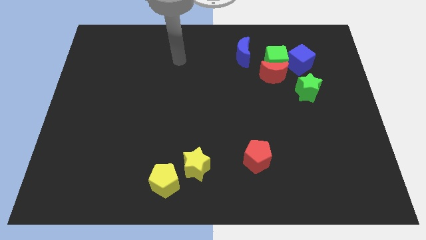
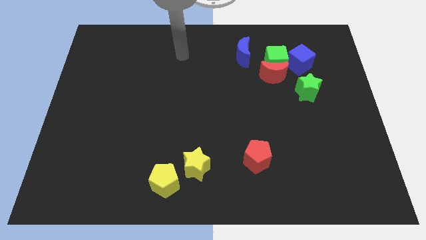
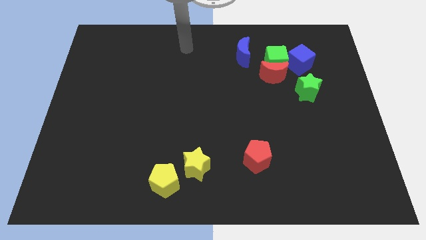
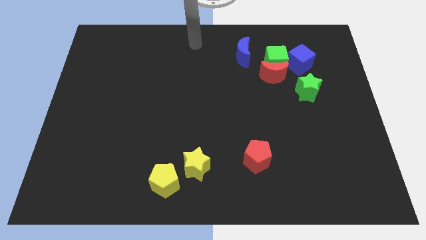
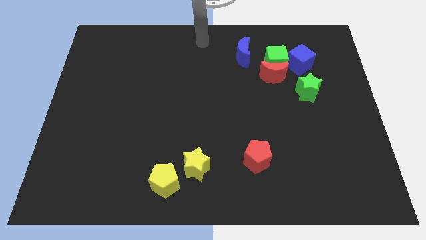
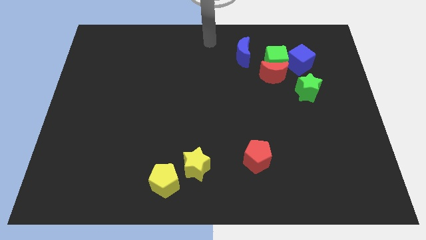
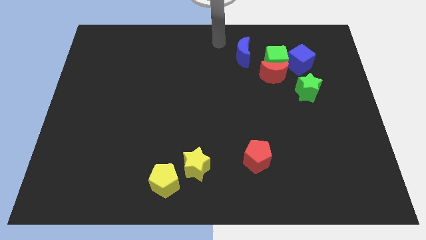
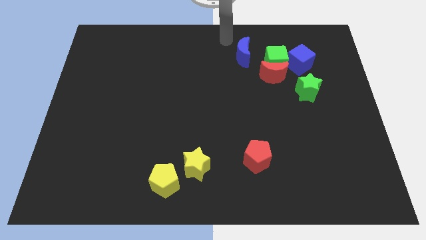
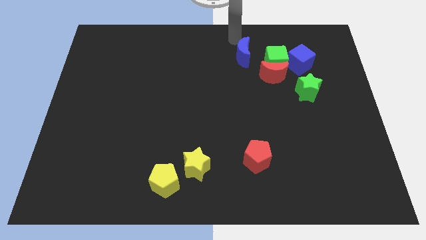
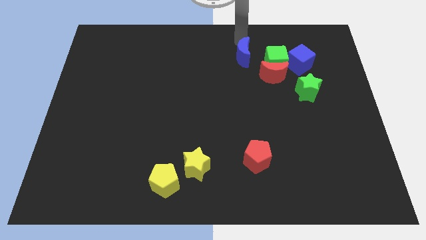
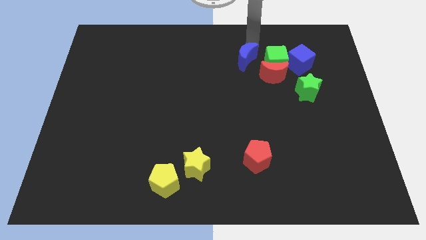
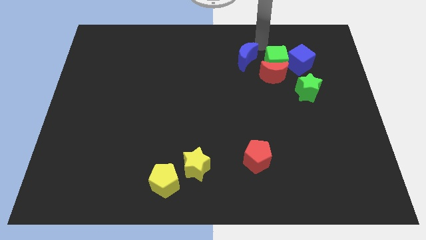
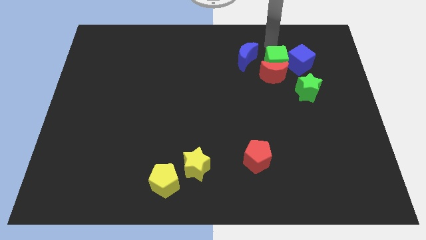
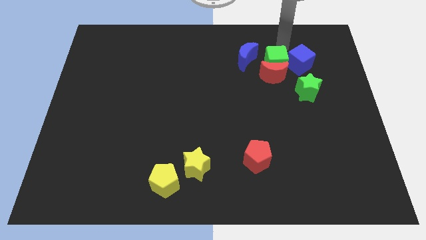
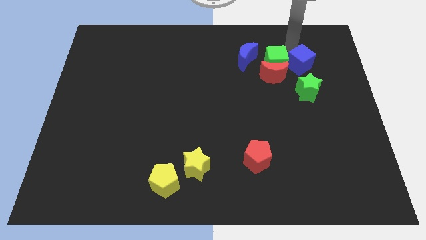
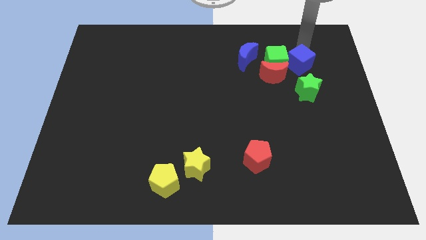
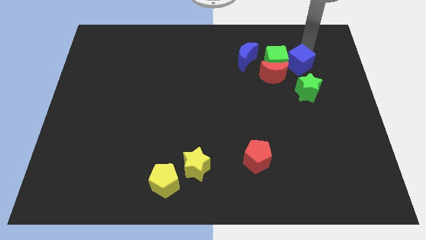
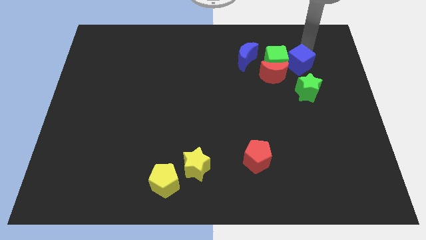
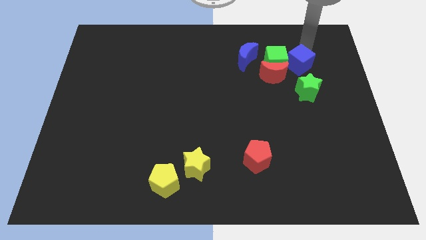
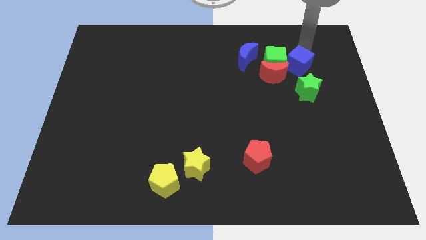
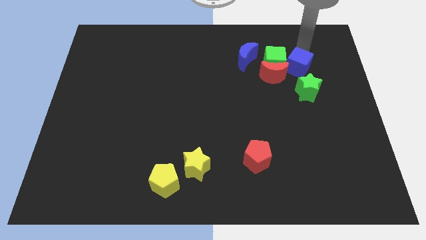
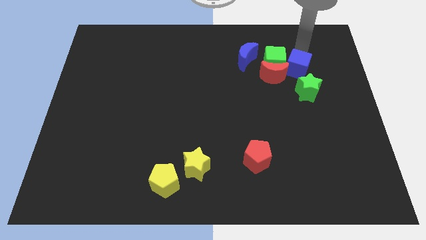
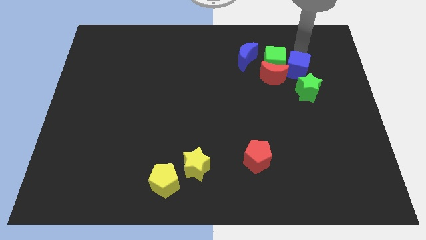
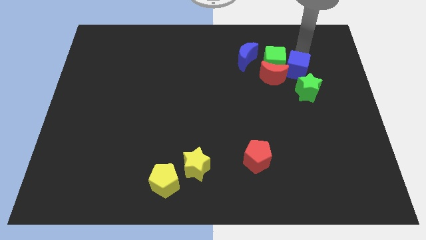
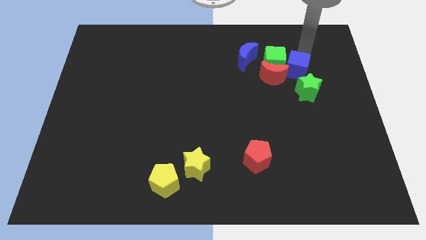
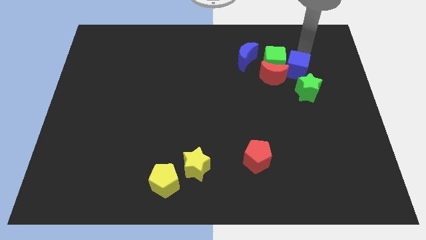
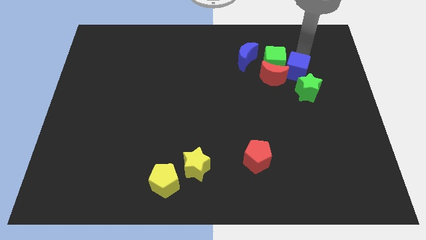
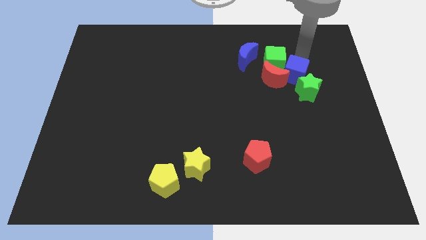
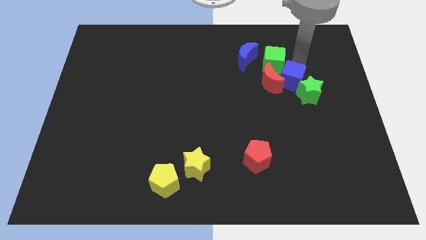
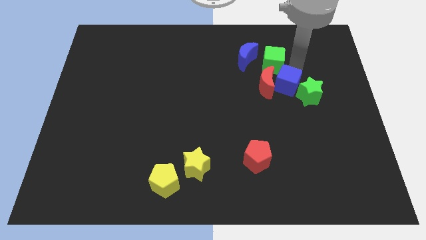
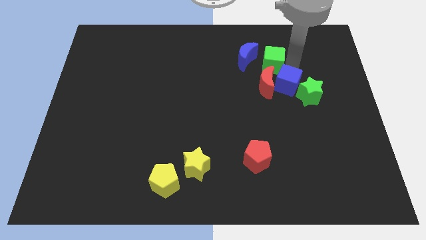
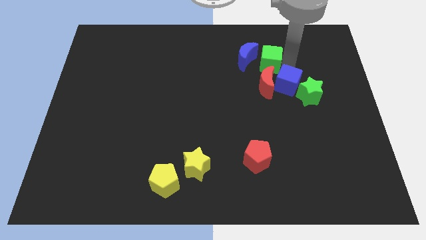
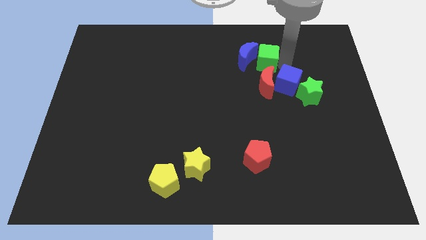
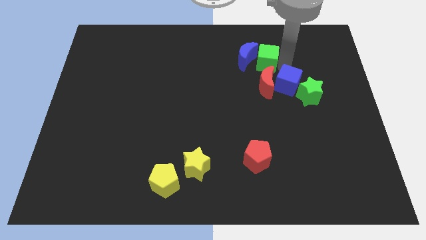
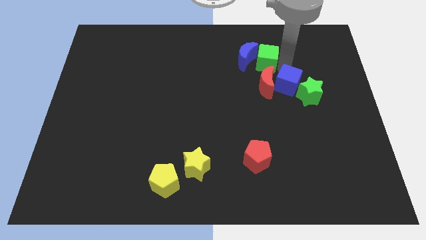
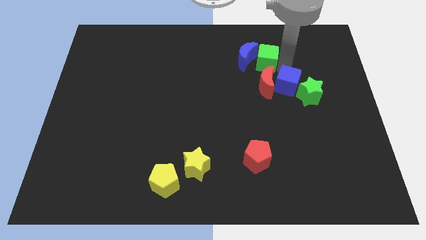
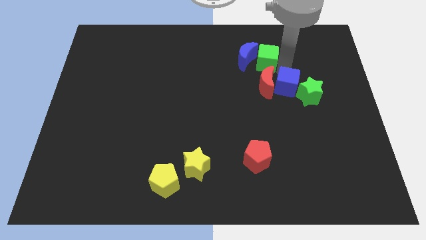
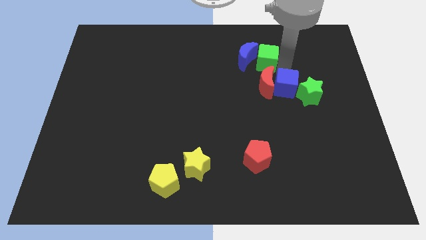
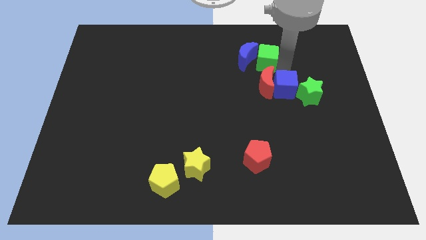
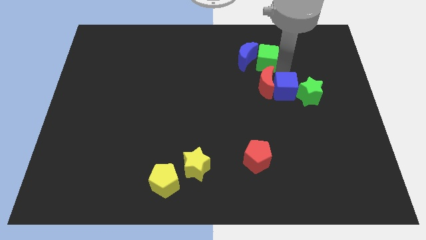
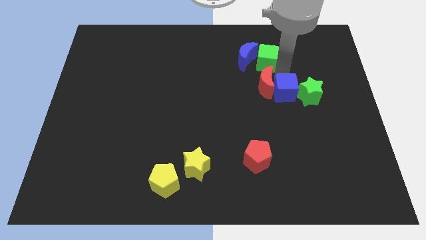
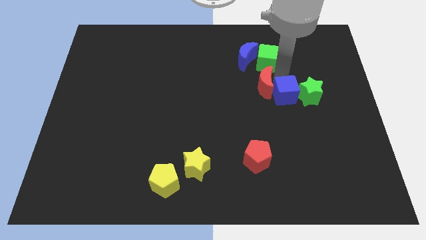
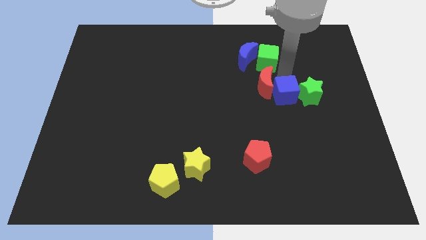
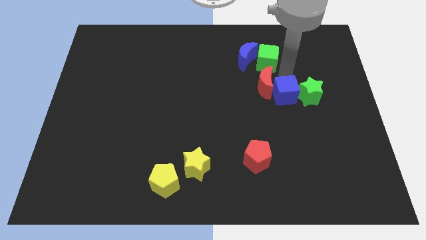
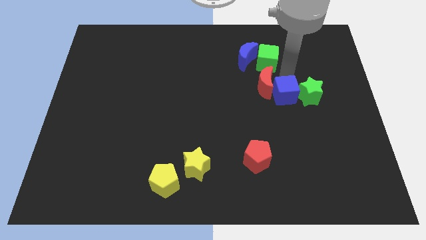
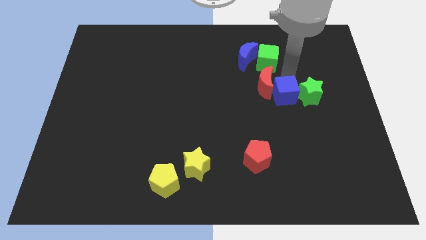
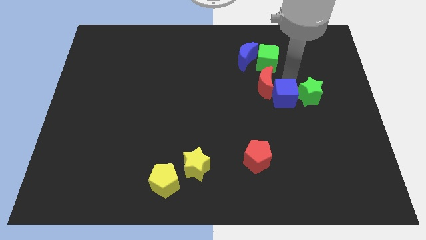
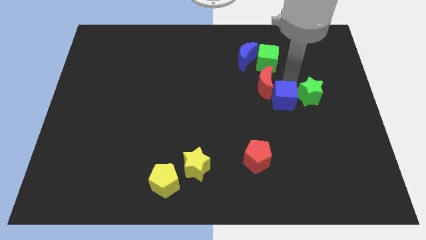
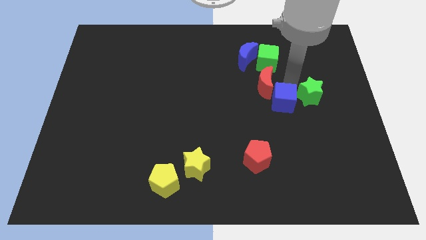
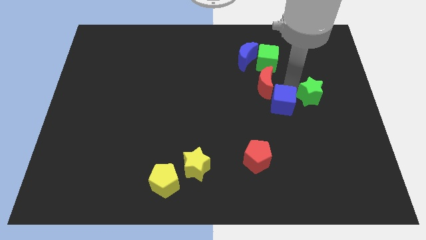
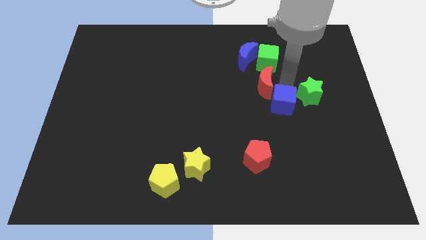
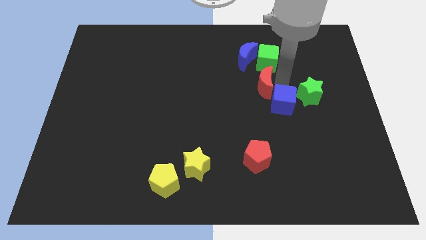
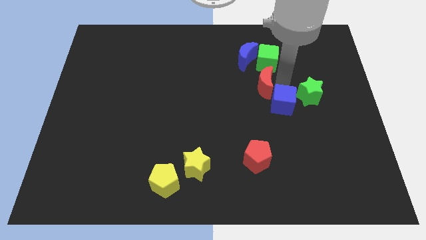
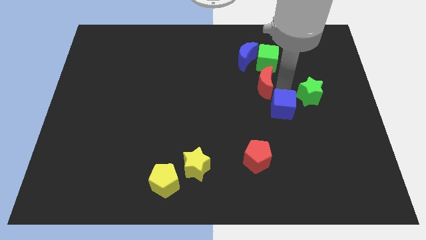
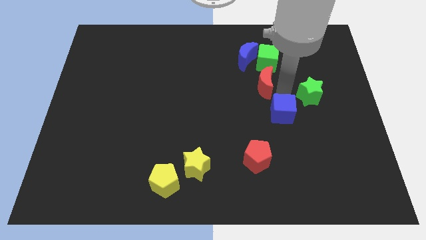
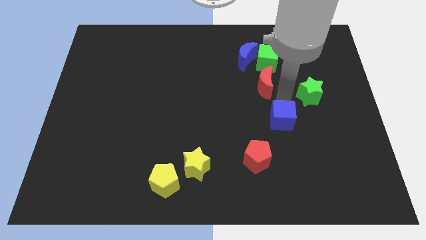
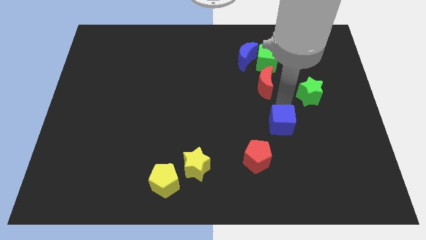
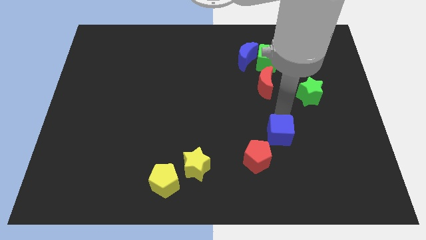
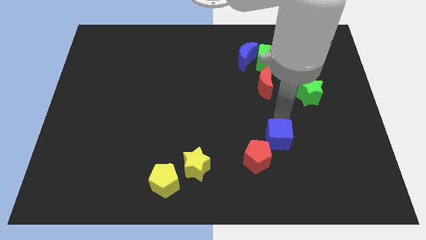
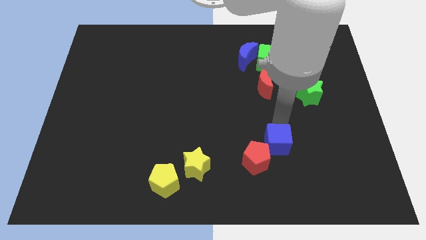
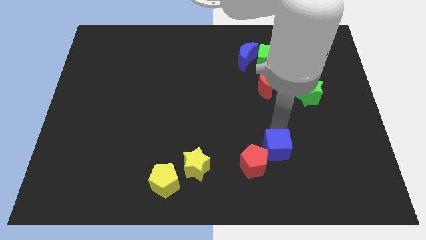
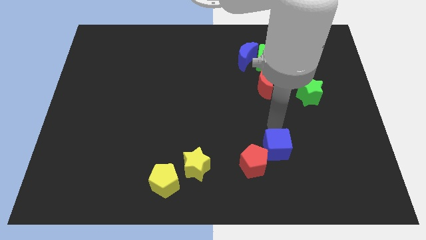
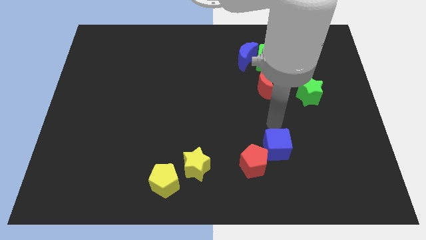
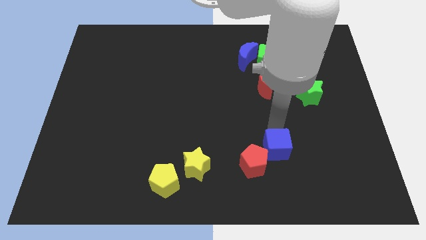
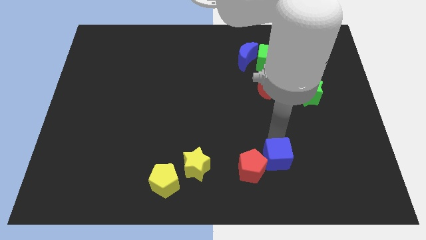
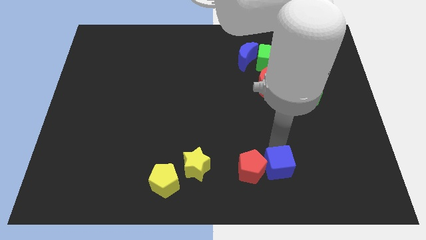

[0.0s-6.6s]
slide the blue cube to the bottom right of the red pentagon

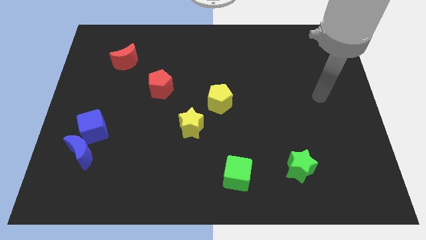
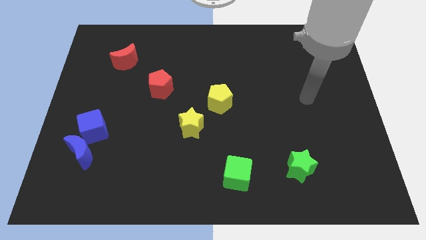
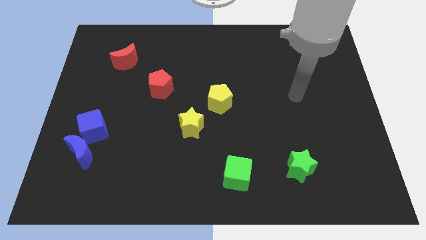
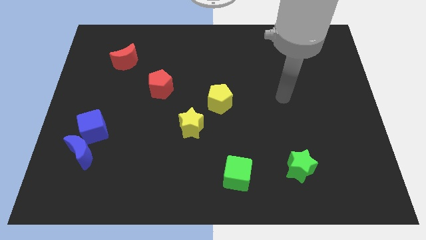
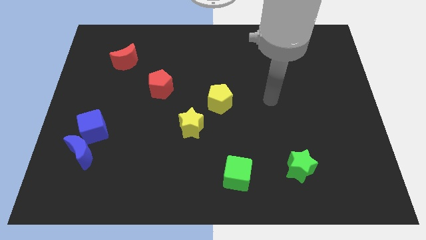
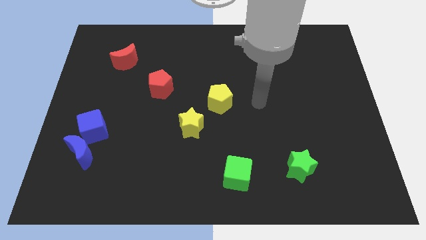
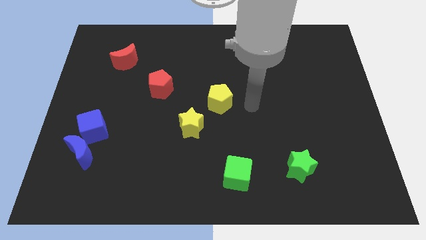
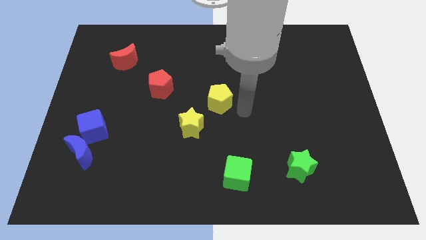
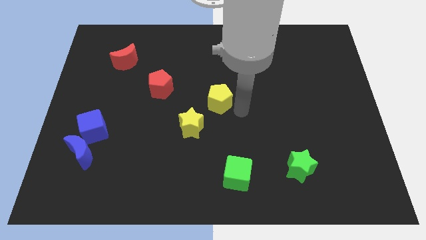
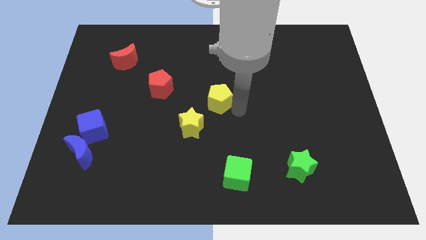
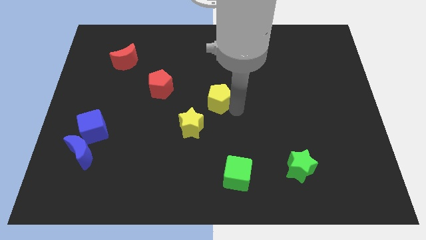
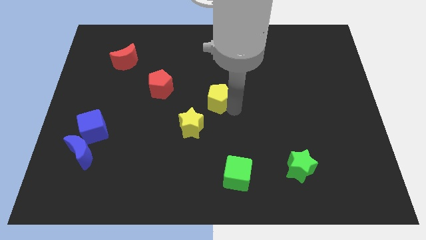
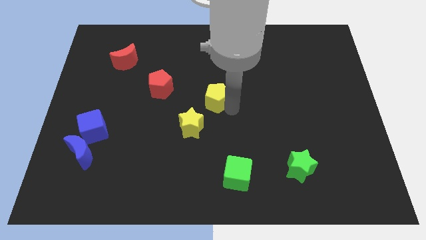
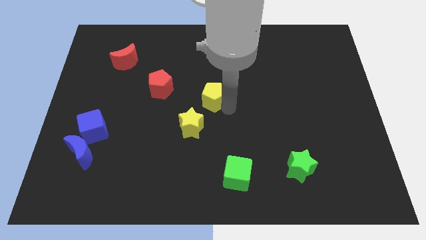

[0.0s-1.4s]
push the yellow pentagon above the yellow star
